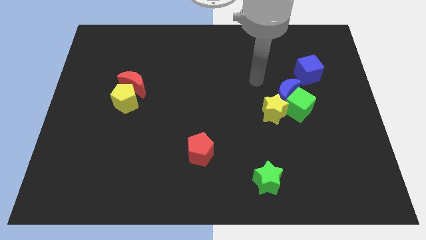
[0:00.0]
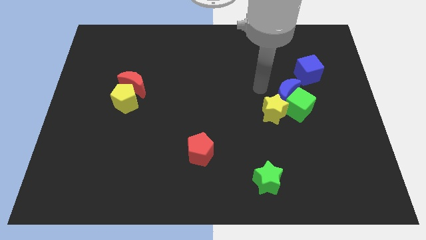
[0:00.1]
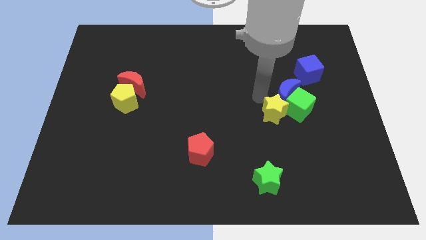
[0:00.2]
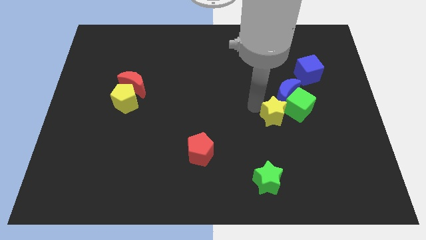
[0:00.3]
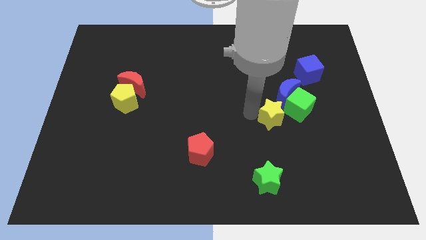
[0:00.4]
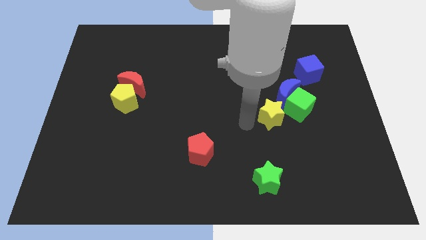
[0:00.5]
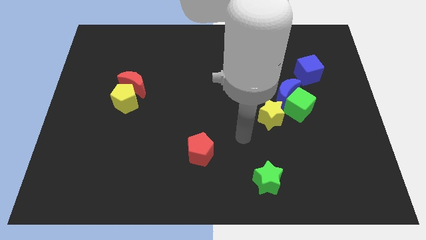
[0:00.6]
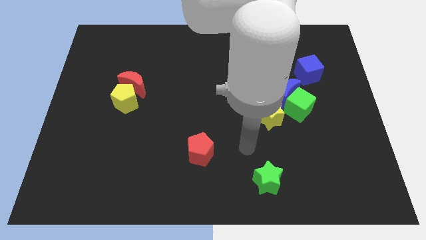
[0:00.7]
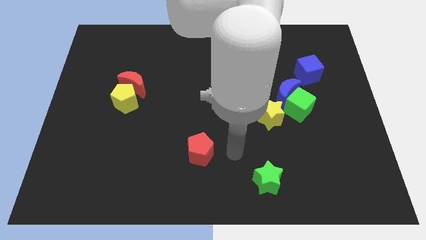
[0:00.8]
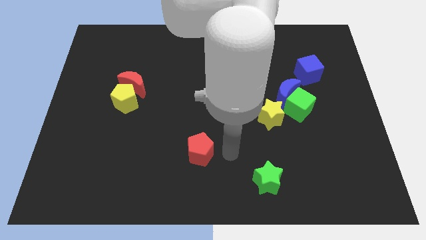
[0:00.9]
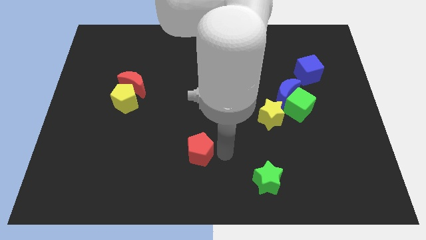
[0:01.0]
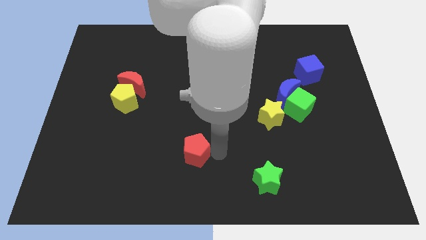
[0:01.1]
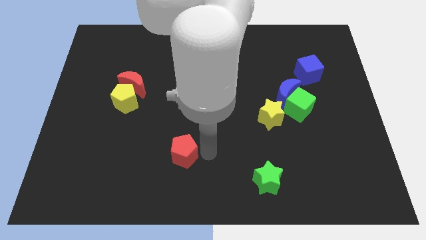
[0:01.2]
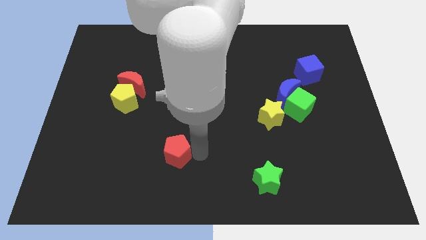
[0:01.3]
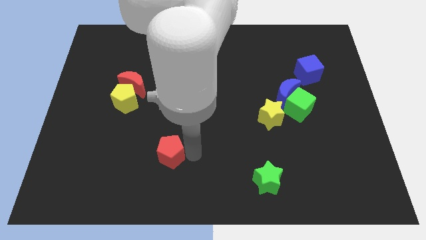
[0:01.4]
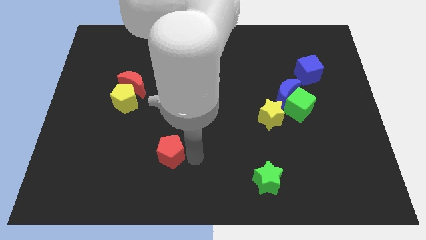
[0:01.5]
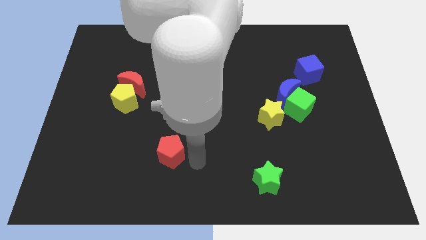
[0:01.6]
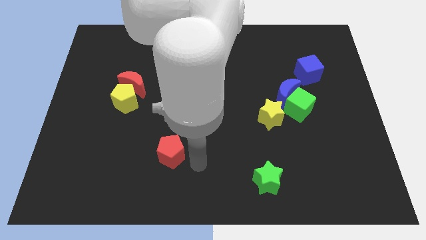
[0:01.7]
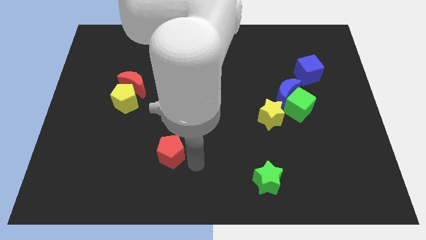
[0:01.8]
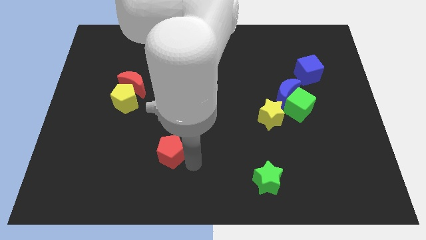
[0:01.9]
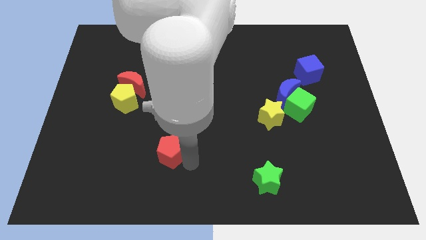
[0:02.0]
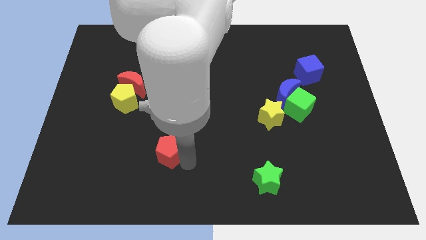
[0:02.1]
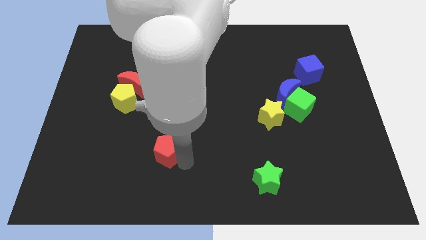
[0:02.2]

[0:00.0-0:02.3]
slide the red pentagon left slightly

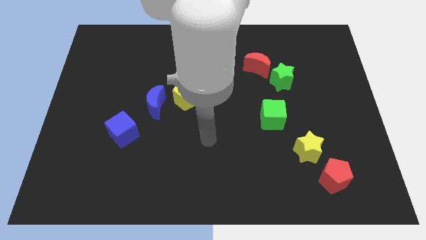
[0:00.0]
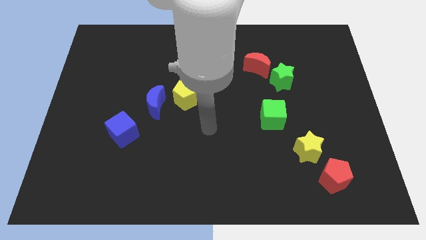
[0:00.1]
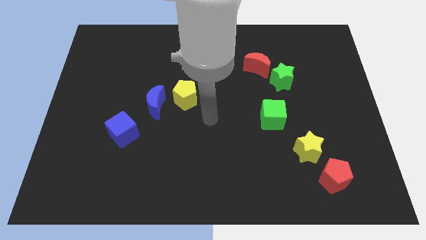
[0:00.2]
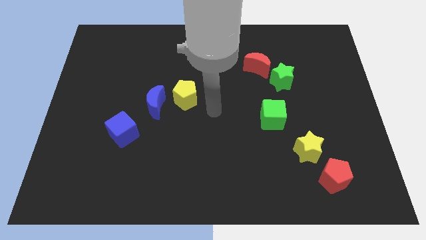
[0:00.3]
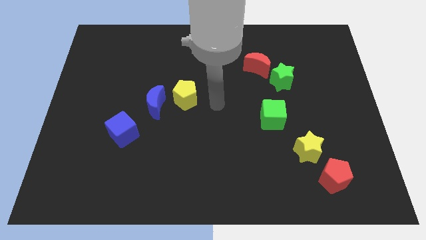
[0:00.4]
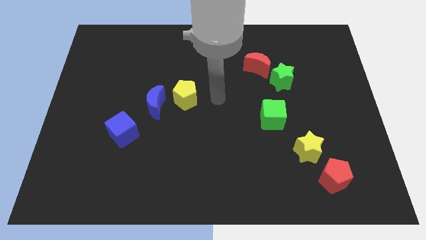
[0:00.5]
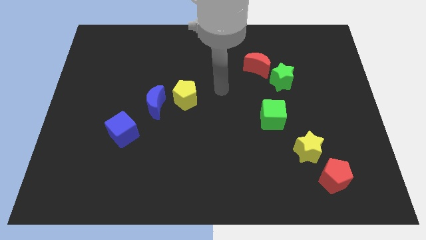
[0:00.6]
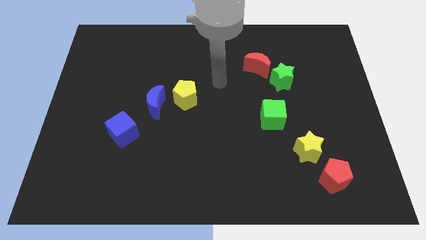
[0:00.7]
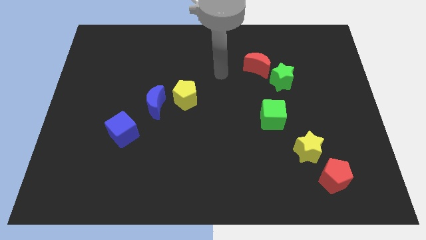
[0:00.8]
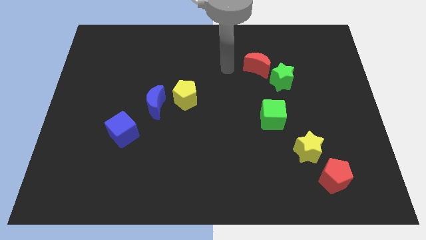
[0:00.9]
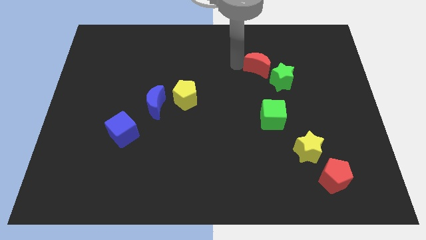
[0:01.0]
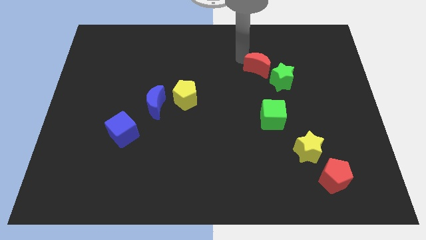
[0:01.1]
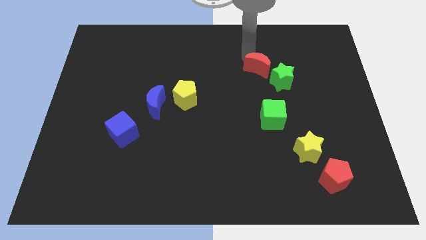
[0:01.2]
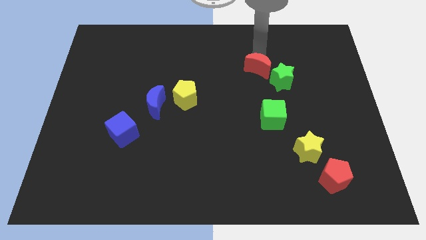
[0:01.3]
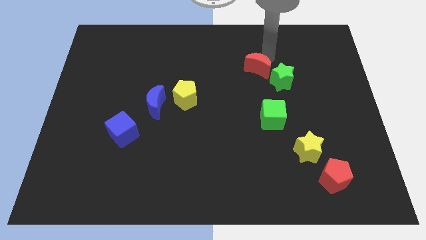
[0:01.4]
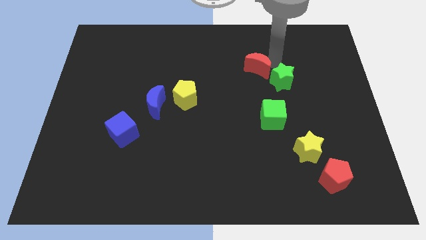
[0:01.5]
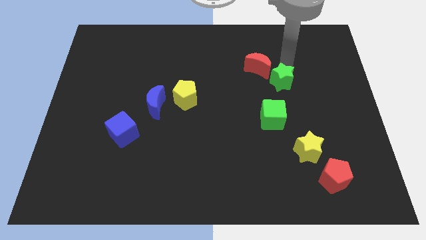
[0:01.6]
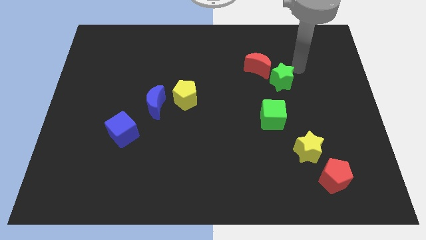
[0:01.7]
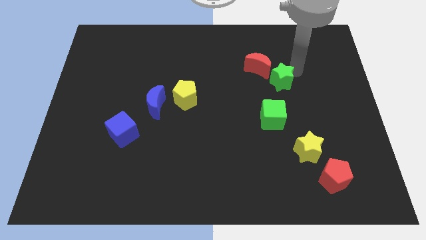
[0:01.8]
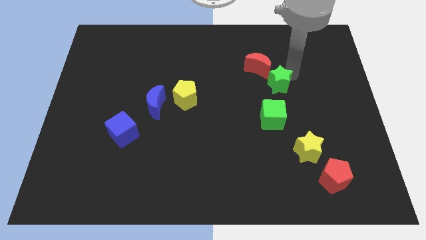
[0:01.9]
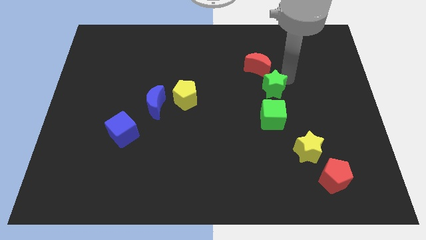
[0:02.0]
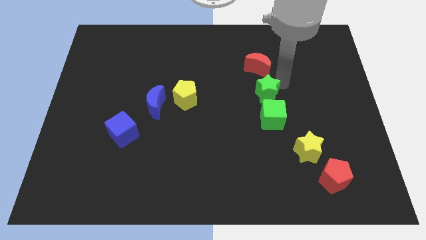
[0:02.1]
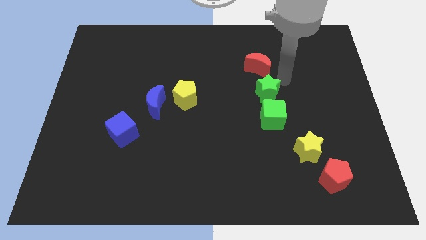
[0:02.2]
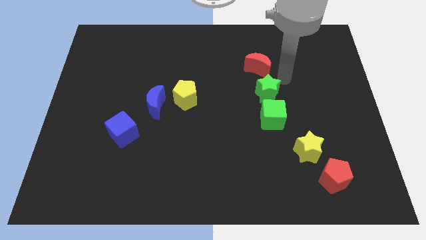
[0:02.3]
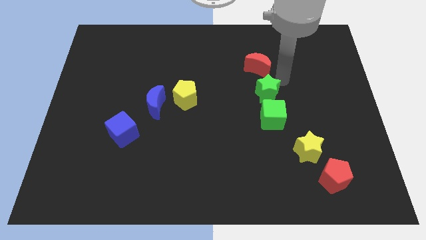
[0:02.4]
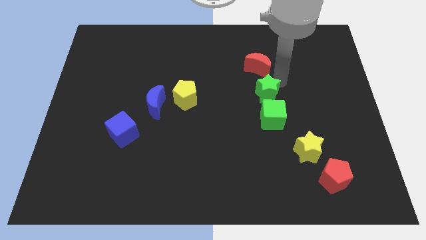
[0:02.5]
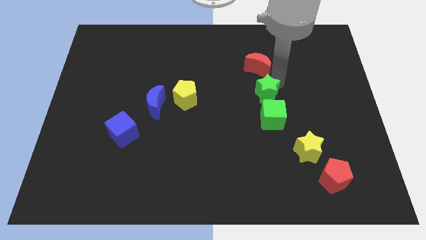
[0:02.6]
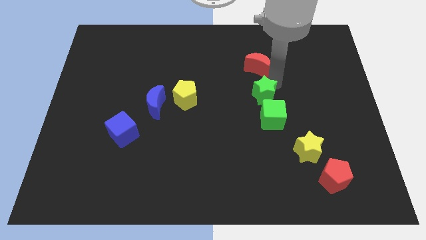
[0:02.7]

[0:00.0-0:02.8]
push the green star down and then to the left a bit

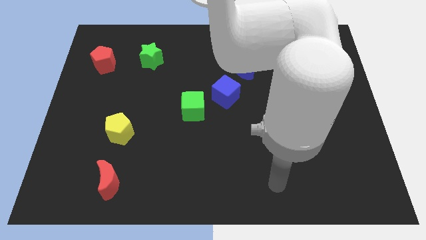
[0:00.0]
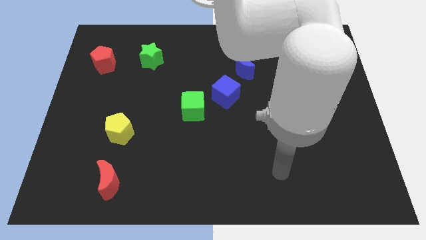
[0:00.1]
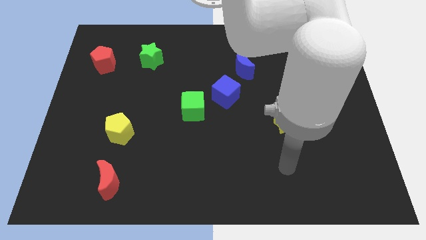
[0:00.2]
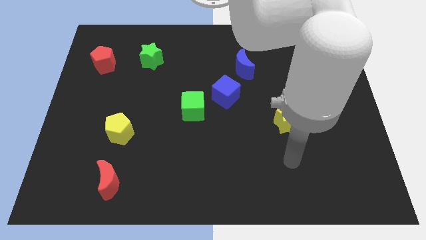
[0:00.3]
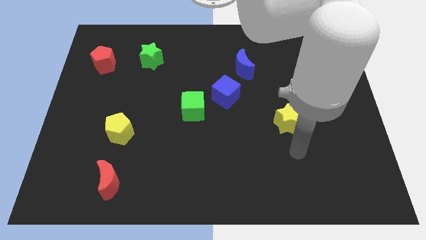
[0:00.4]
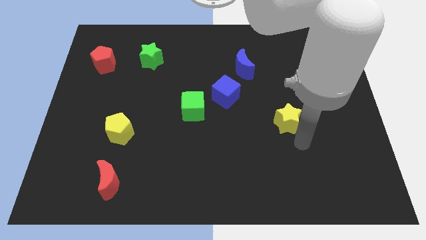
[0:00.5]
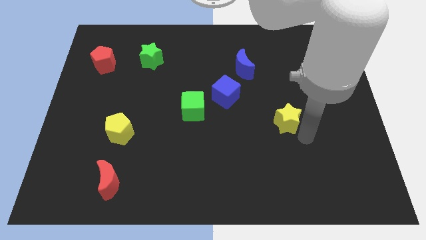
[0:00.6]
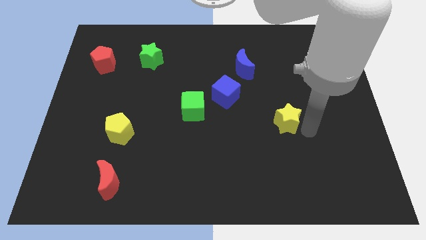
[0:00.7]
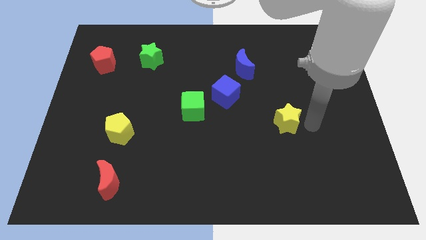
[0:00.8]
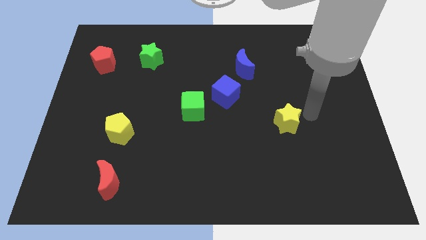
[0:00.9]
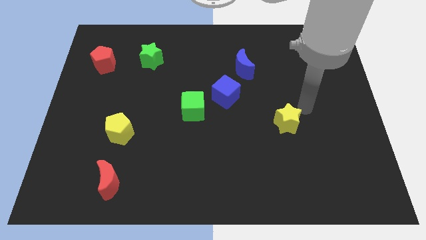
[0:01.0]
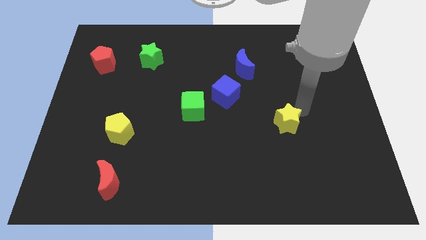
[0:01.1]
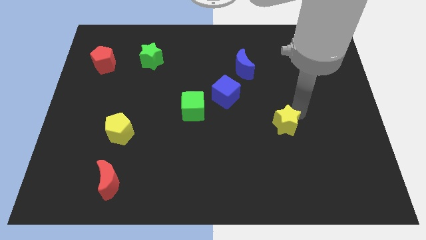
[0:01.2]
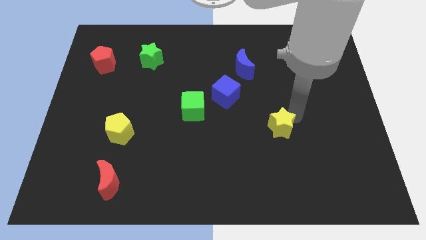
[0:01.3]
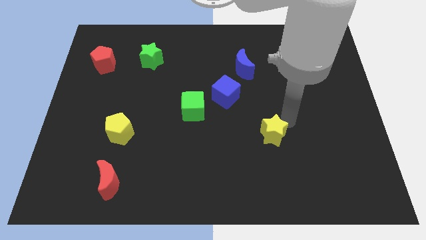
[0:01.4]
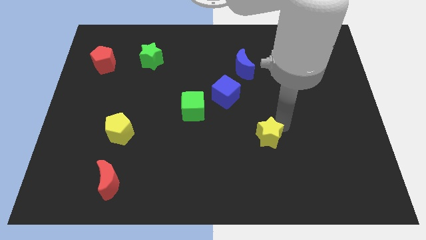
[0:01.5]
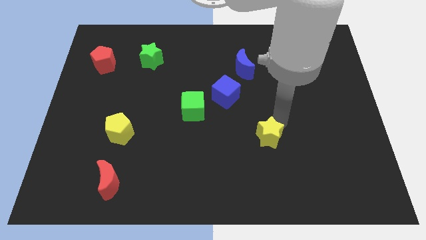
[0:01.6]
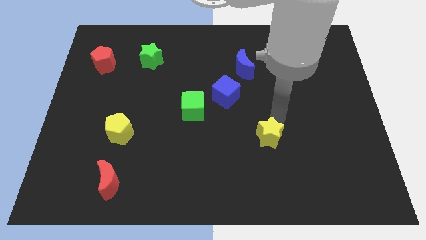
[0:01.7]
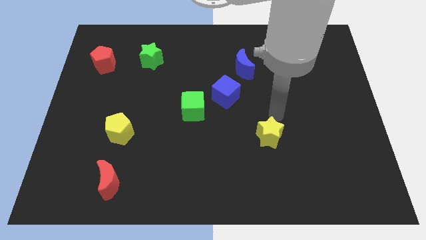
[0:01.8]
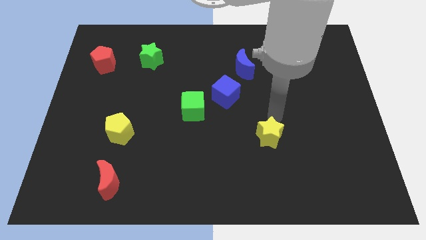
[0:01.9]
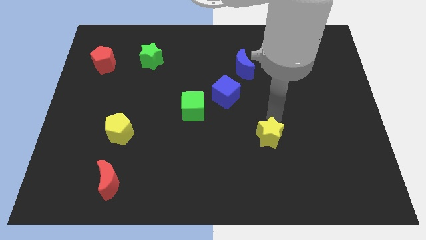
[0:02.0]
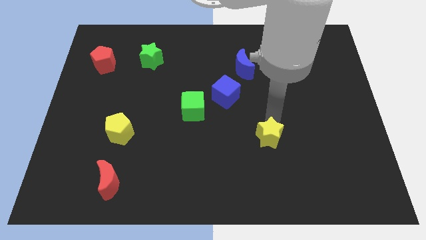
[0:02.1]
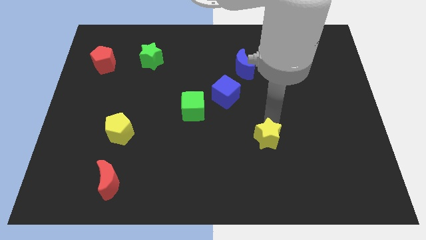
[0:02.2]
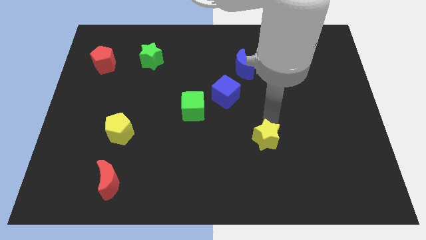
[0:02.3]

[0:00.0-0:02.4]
move the yellow star a bit diagonally down and left

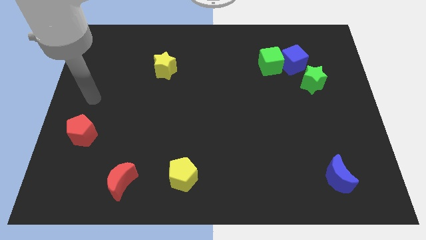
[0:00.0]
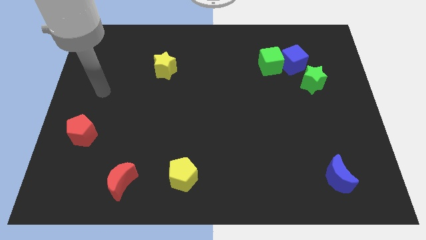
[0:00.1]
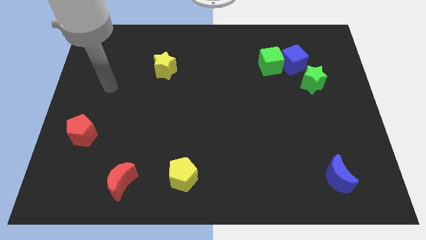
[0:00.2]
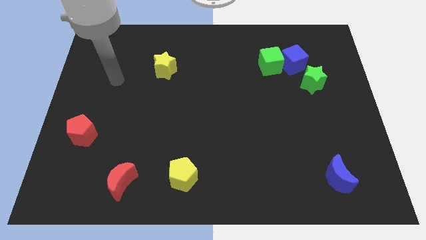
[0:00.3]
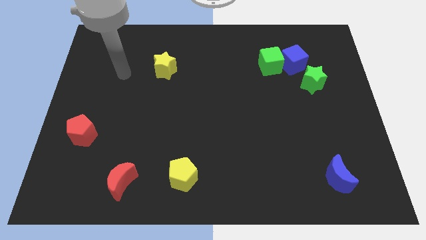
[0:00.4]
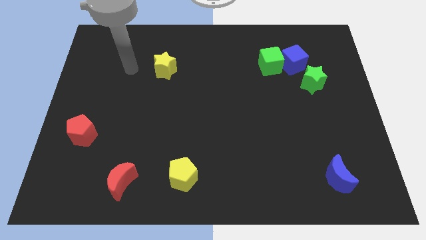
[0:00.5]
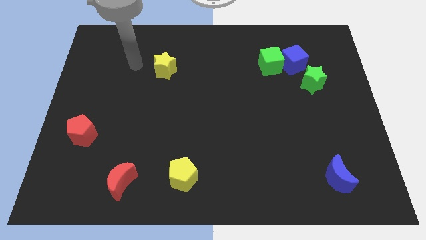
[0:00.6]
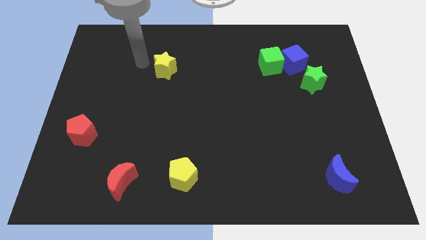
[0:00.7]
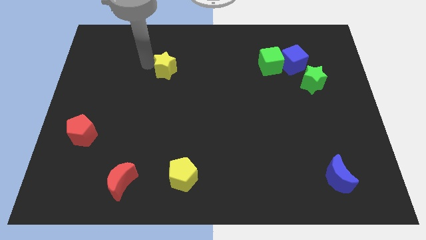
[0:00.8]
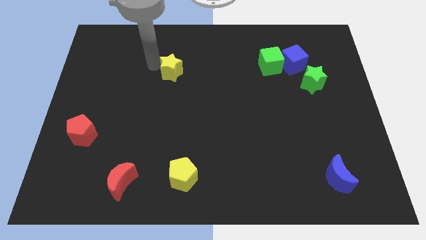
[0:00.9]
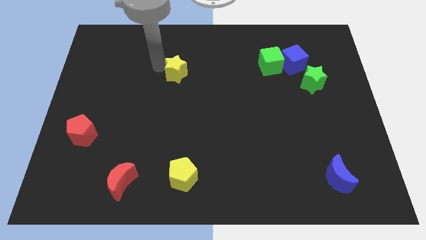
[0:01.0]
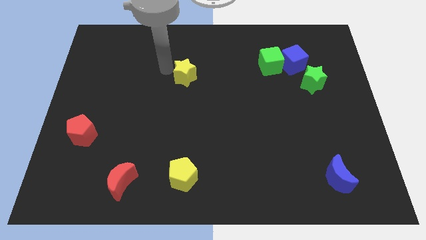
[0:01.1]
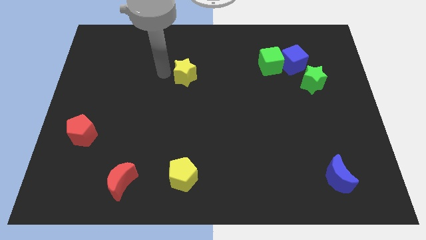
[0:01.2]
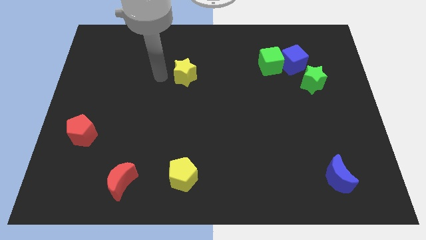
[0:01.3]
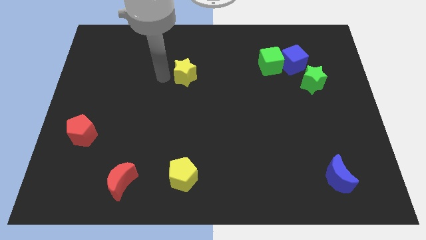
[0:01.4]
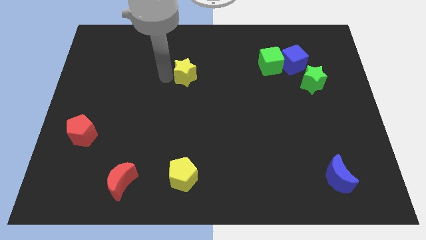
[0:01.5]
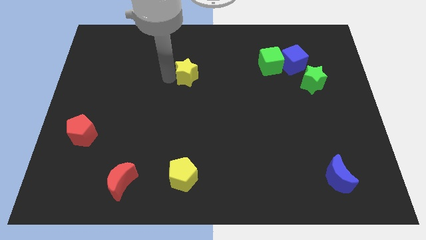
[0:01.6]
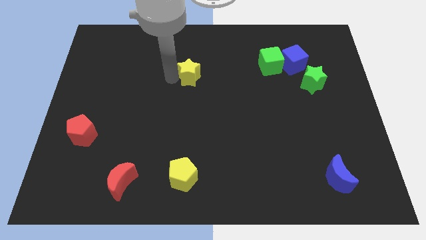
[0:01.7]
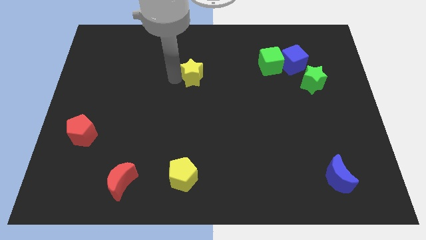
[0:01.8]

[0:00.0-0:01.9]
slightly move the yellow star to the right
